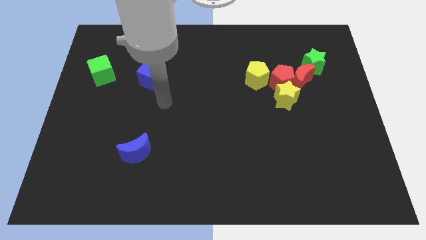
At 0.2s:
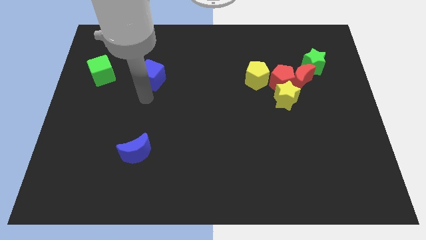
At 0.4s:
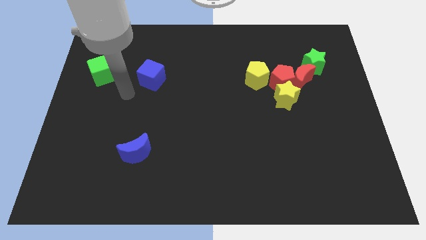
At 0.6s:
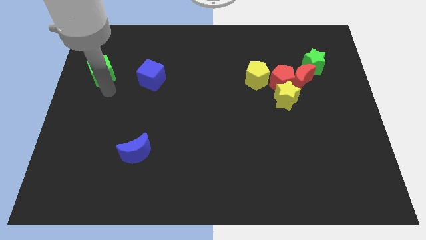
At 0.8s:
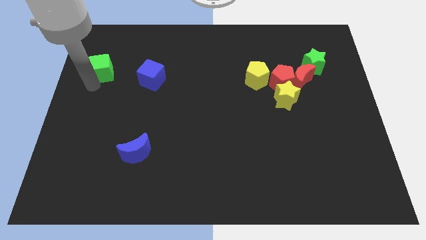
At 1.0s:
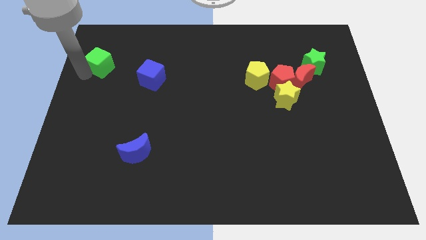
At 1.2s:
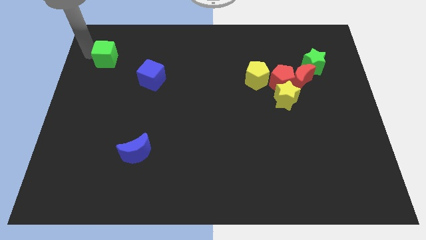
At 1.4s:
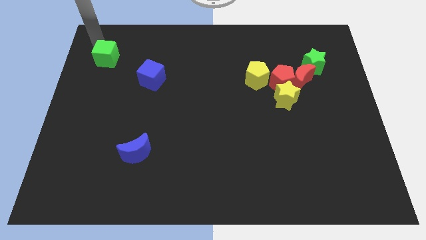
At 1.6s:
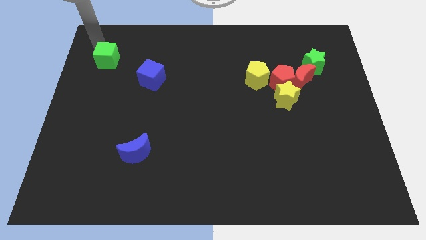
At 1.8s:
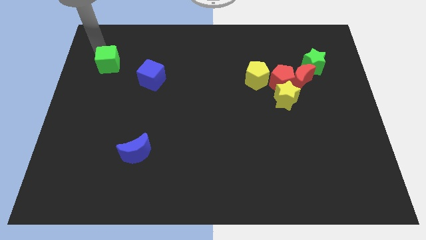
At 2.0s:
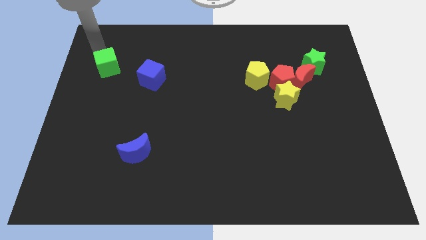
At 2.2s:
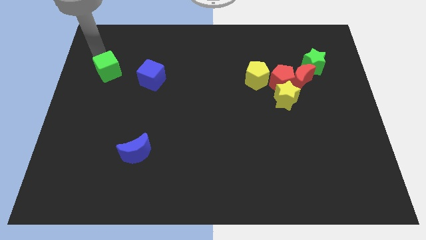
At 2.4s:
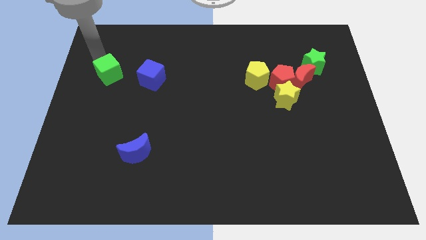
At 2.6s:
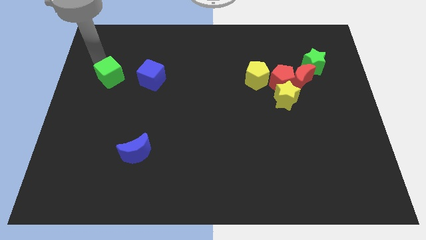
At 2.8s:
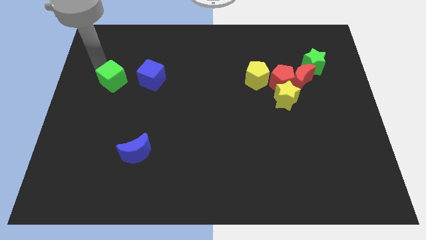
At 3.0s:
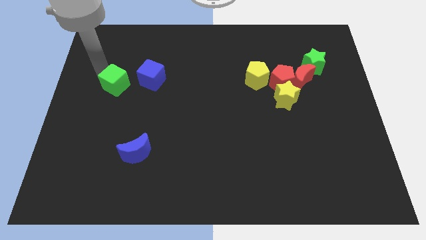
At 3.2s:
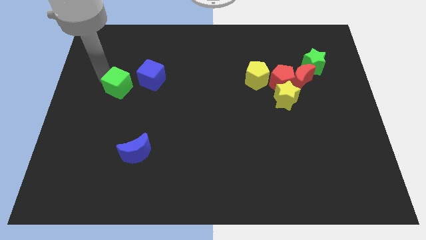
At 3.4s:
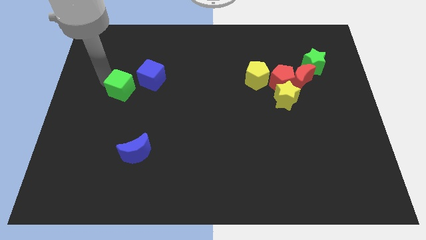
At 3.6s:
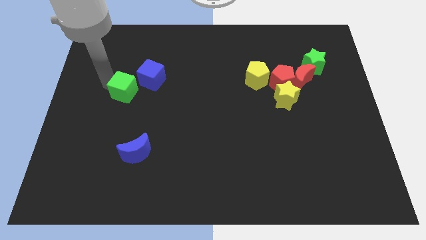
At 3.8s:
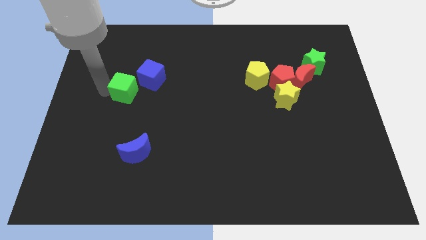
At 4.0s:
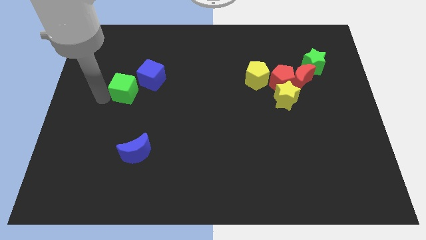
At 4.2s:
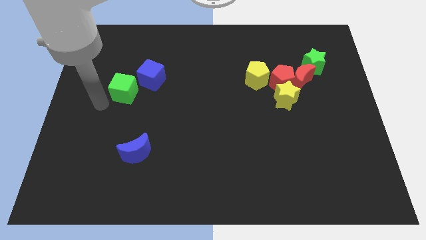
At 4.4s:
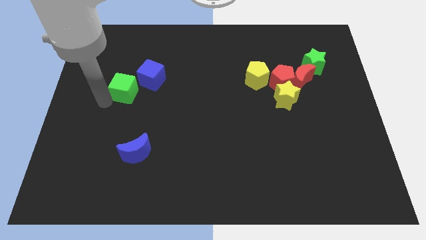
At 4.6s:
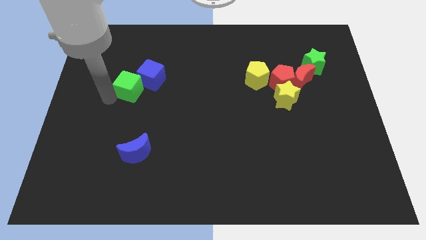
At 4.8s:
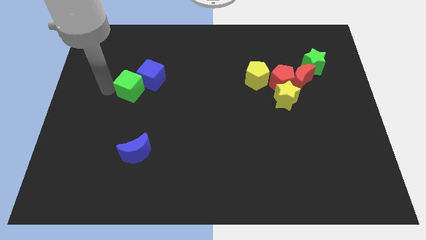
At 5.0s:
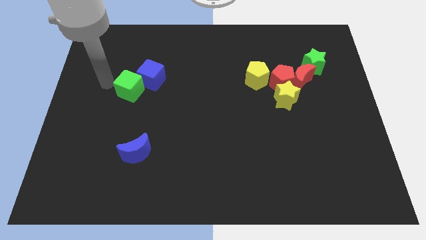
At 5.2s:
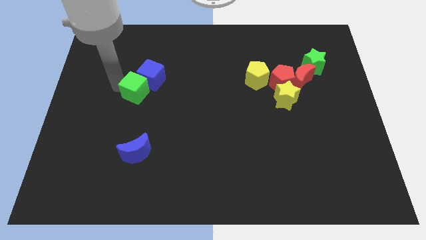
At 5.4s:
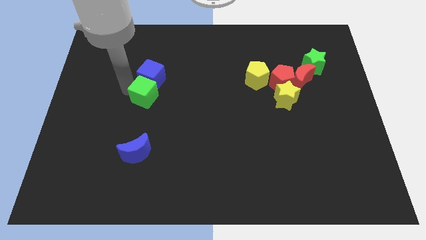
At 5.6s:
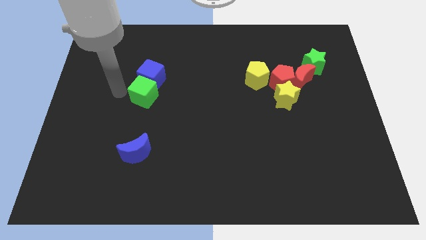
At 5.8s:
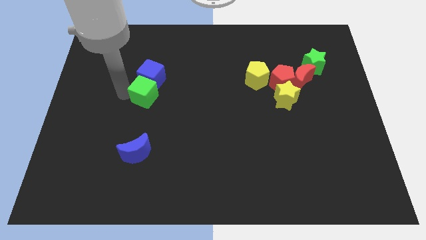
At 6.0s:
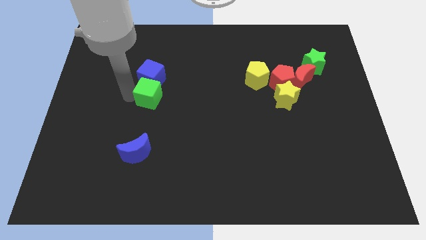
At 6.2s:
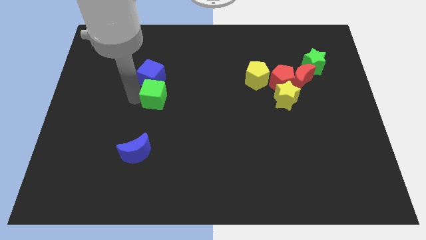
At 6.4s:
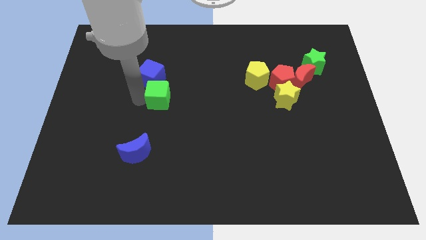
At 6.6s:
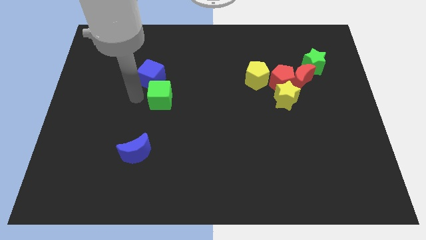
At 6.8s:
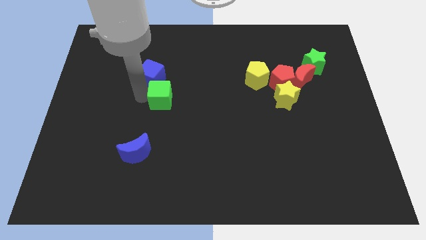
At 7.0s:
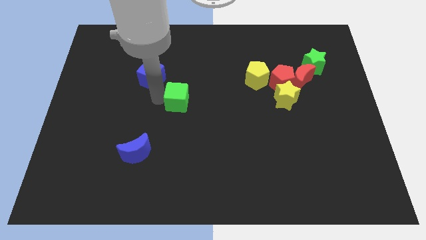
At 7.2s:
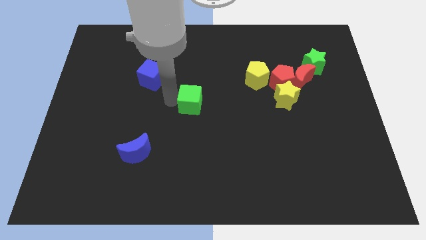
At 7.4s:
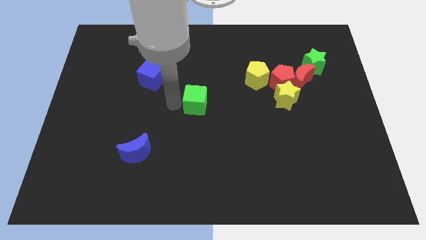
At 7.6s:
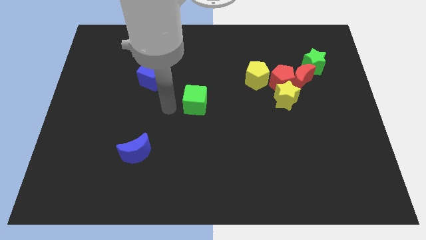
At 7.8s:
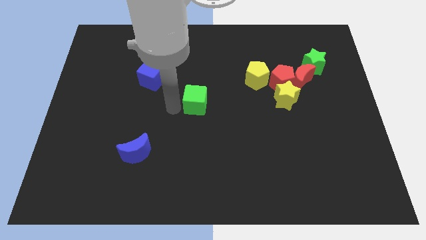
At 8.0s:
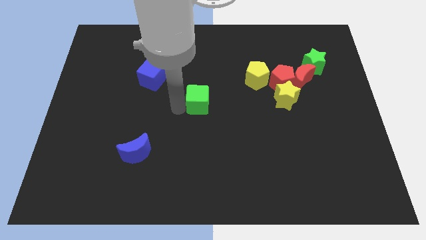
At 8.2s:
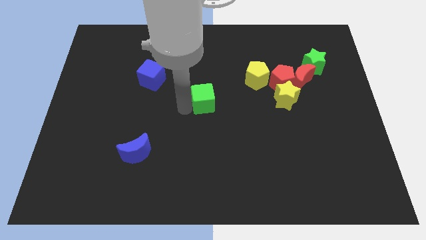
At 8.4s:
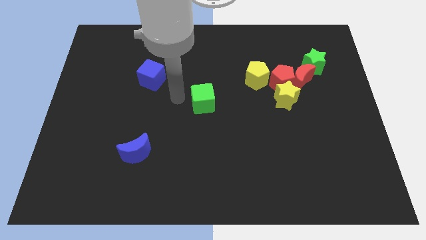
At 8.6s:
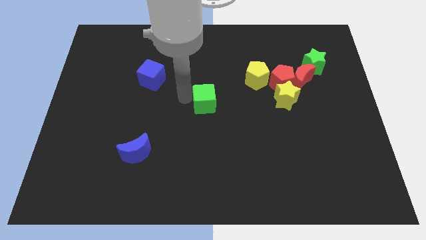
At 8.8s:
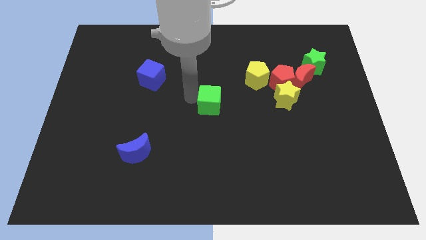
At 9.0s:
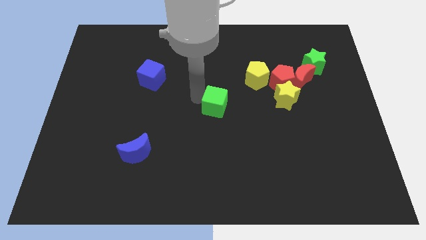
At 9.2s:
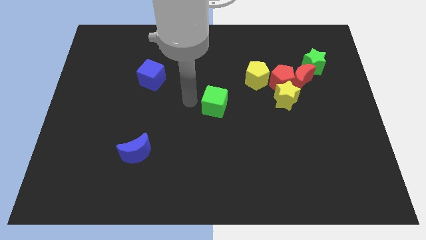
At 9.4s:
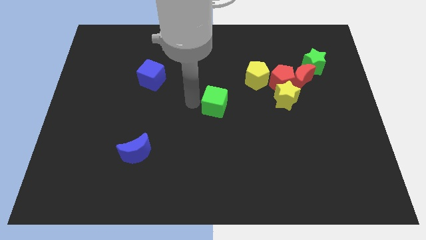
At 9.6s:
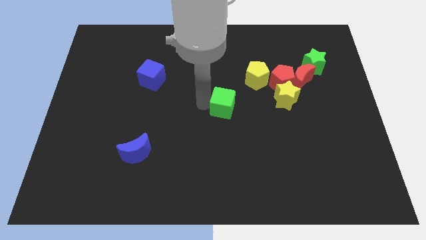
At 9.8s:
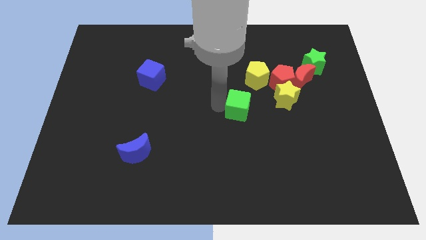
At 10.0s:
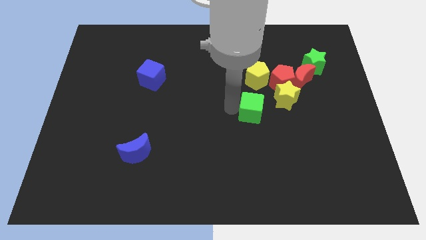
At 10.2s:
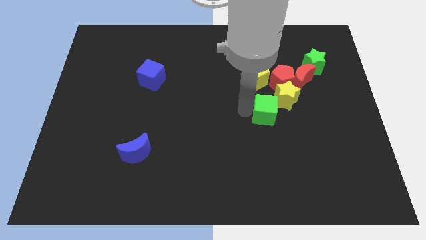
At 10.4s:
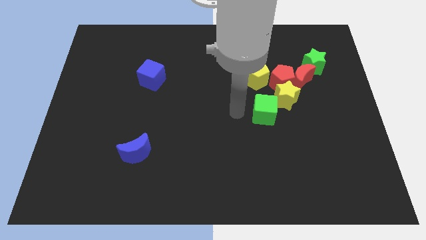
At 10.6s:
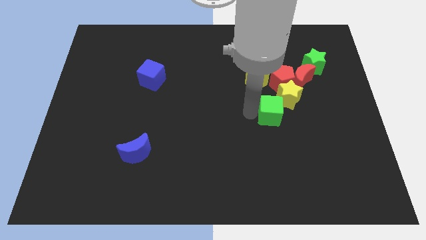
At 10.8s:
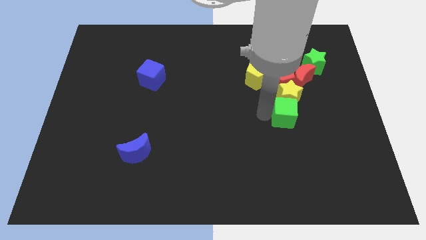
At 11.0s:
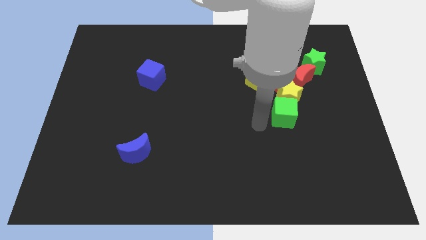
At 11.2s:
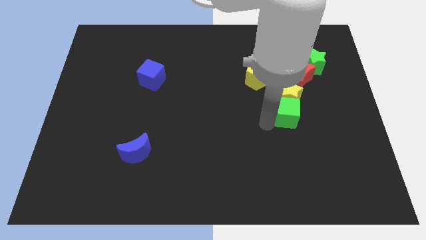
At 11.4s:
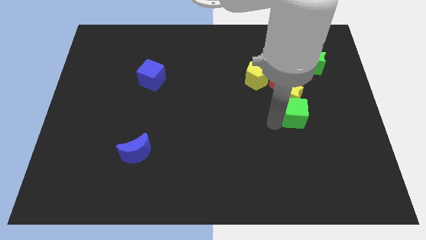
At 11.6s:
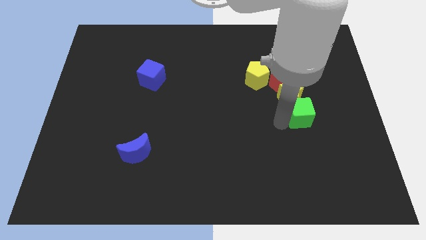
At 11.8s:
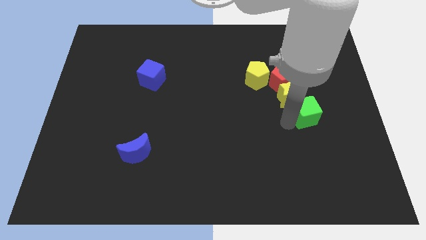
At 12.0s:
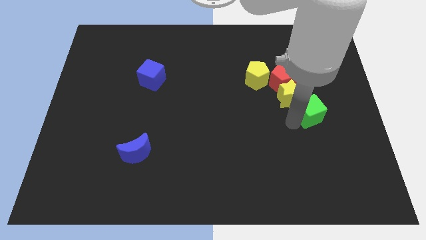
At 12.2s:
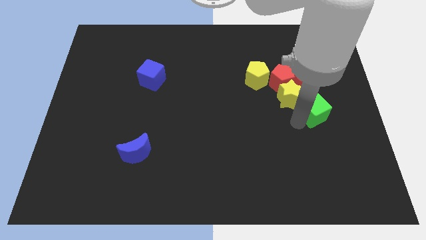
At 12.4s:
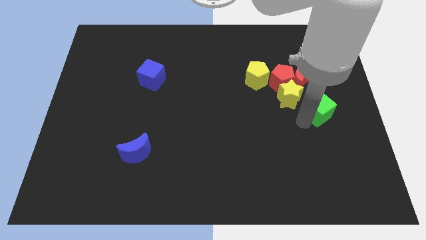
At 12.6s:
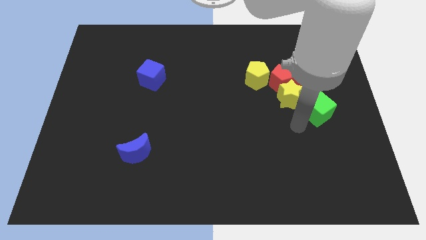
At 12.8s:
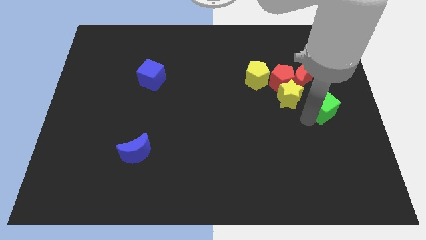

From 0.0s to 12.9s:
slide the green cube to the center right
